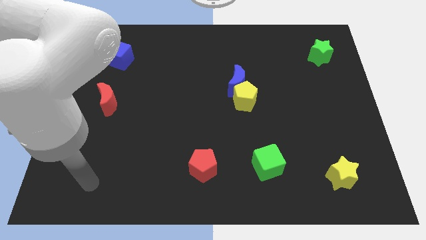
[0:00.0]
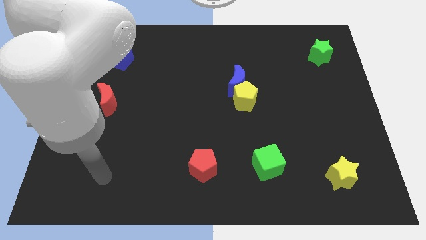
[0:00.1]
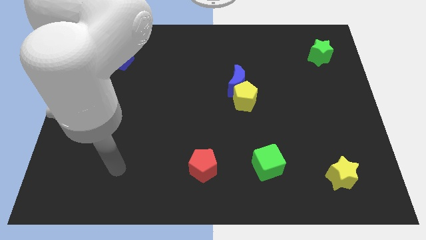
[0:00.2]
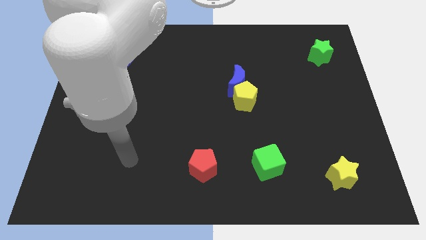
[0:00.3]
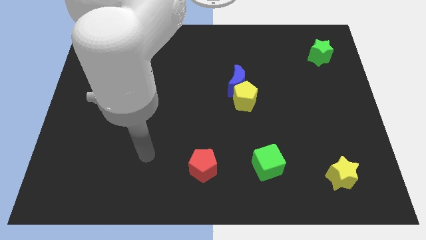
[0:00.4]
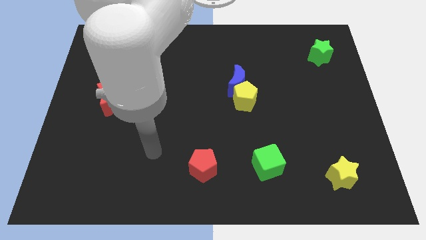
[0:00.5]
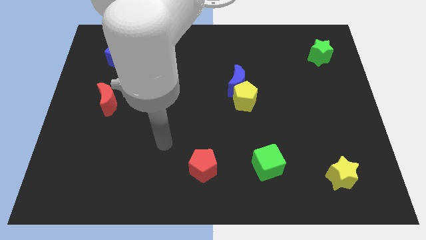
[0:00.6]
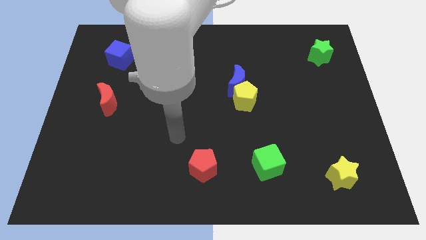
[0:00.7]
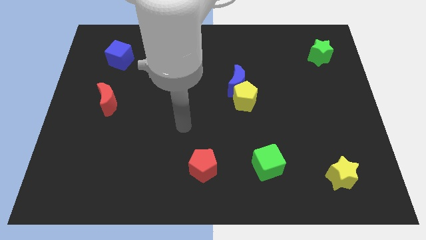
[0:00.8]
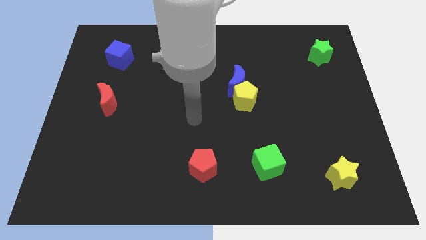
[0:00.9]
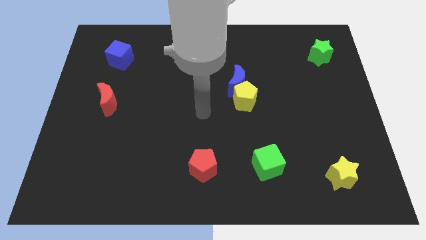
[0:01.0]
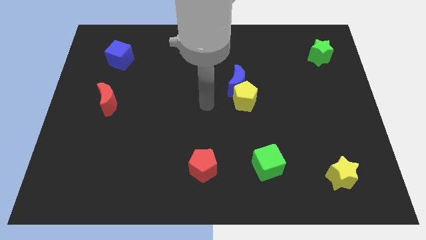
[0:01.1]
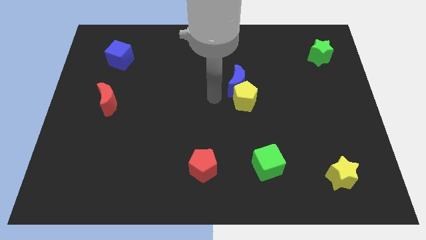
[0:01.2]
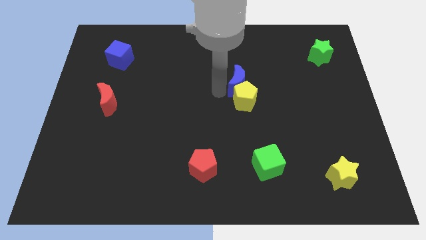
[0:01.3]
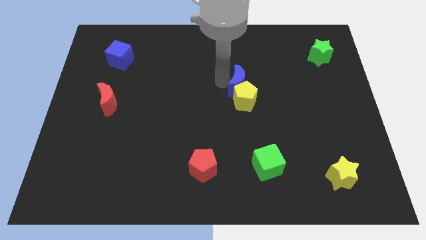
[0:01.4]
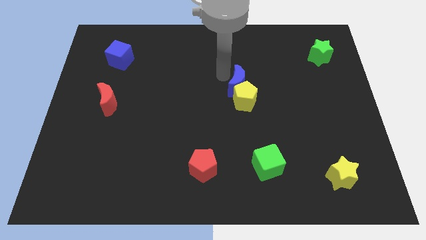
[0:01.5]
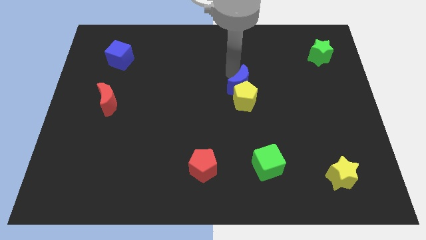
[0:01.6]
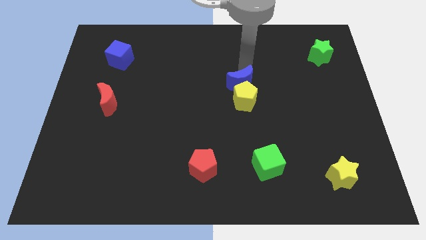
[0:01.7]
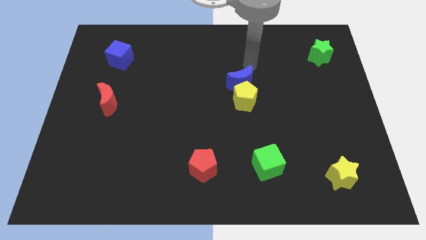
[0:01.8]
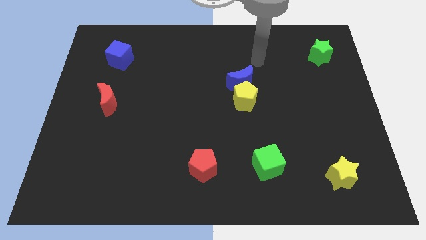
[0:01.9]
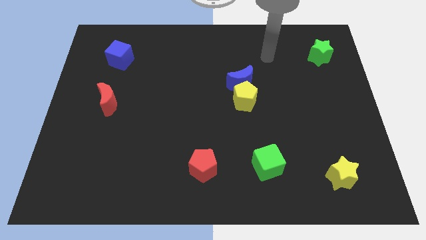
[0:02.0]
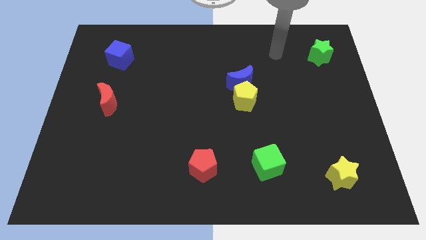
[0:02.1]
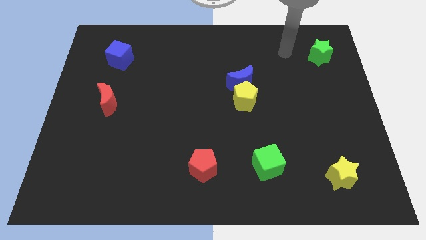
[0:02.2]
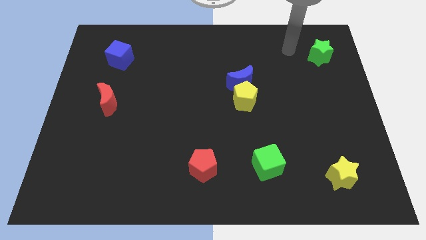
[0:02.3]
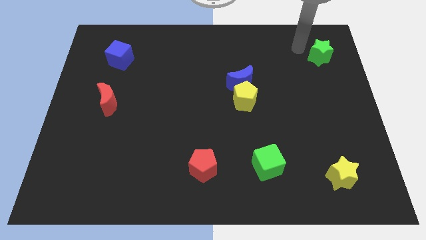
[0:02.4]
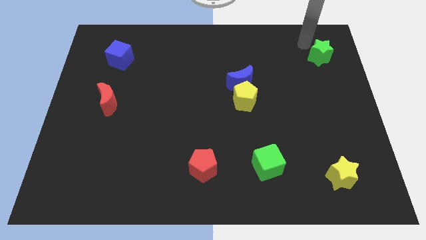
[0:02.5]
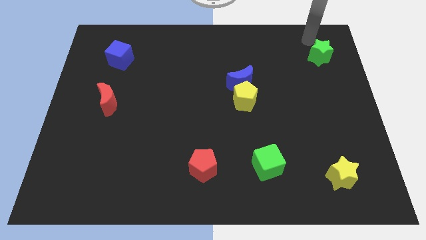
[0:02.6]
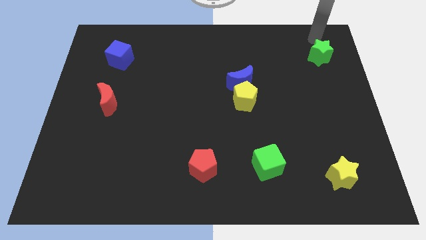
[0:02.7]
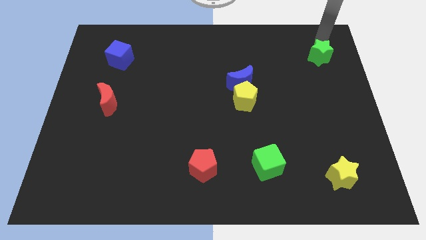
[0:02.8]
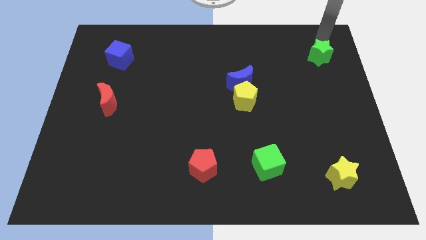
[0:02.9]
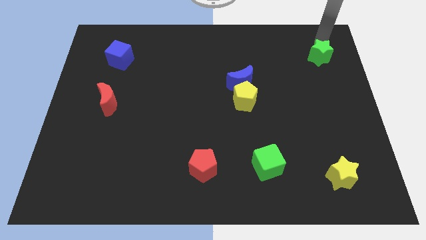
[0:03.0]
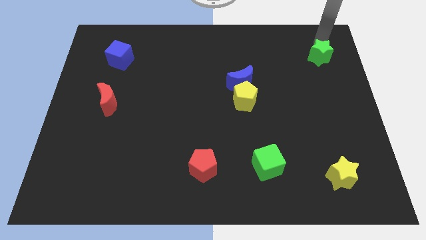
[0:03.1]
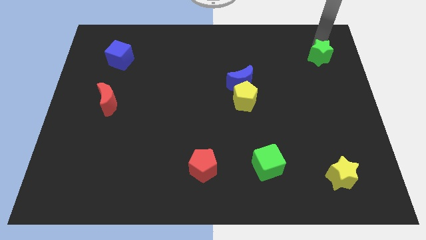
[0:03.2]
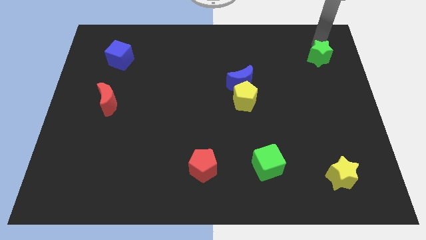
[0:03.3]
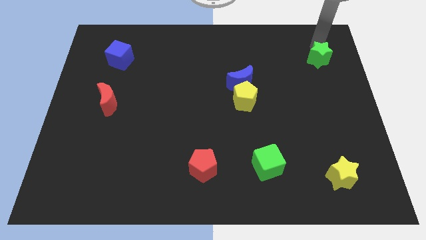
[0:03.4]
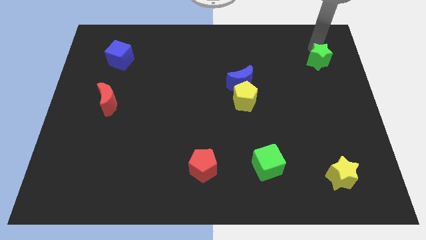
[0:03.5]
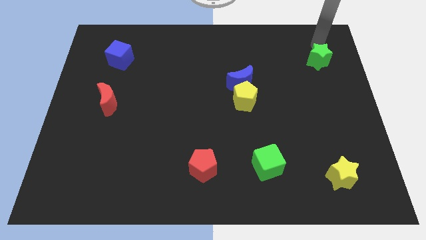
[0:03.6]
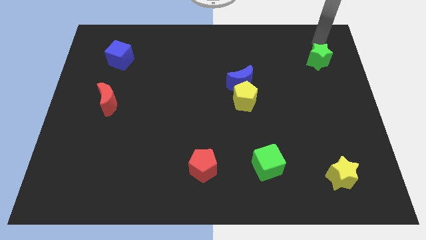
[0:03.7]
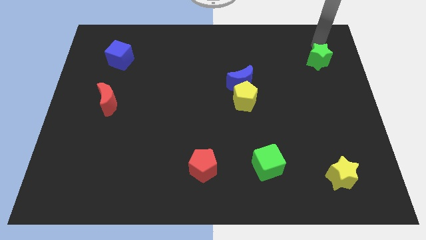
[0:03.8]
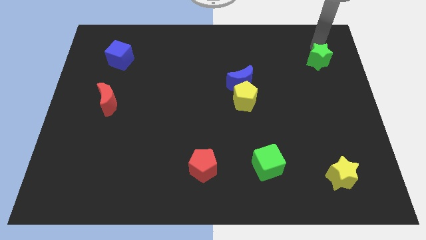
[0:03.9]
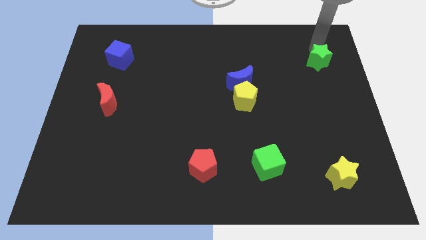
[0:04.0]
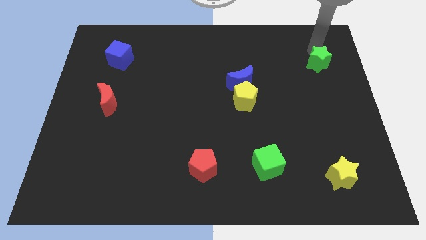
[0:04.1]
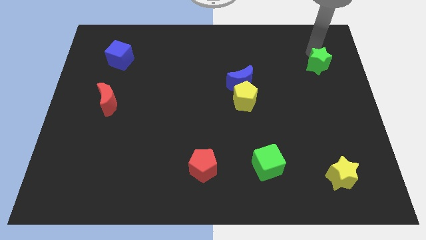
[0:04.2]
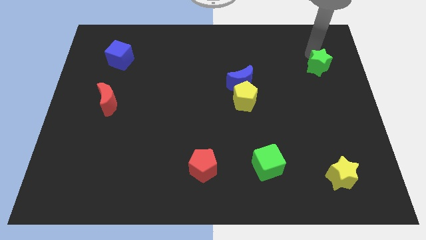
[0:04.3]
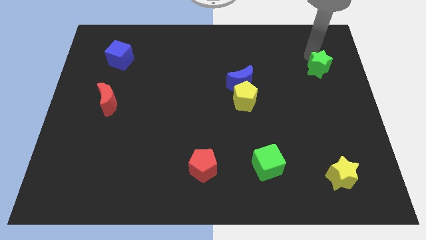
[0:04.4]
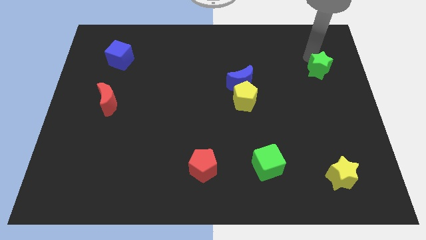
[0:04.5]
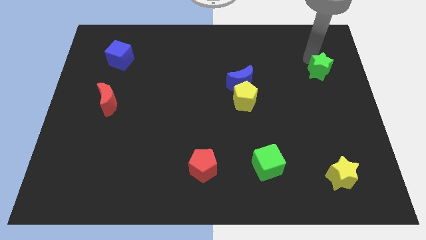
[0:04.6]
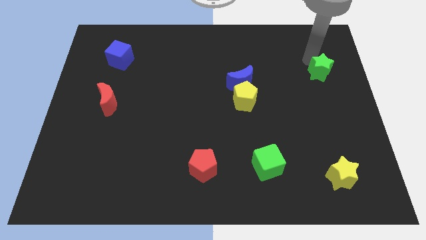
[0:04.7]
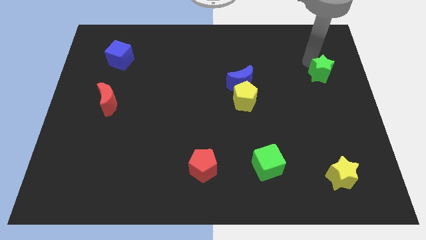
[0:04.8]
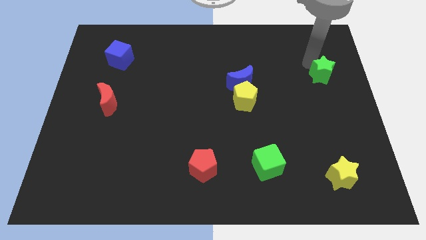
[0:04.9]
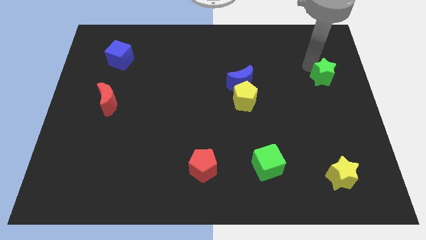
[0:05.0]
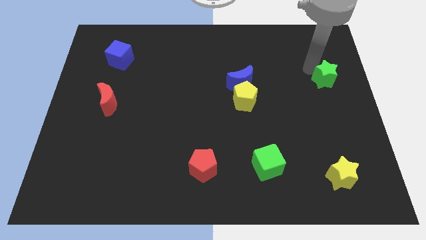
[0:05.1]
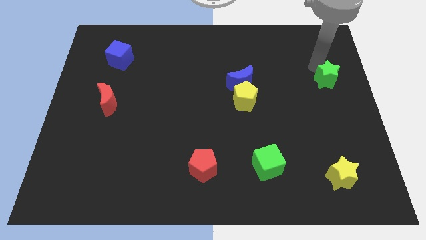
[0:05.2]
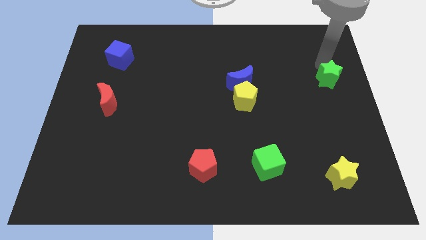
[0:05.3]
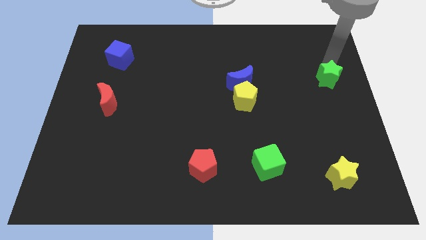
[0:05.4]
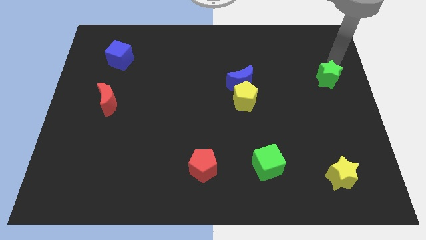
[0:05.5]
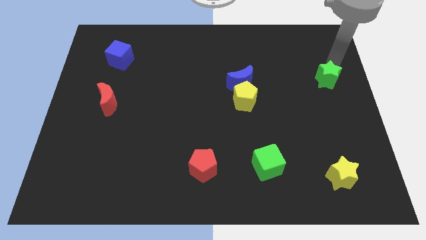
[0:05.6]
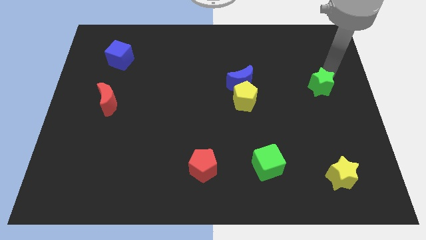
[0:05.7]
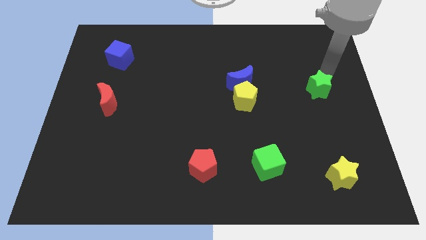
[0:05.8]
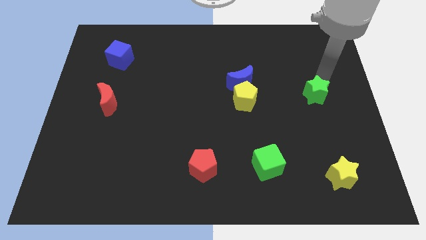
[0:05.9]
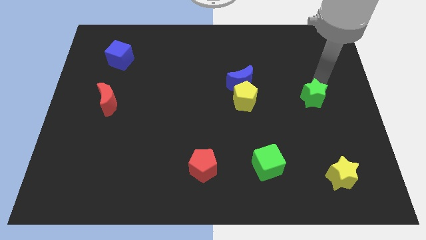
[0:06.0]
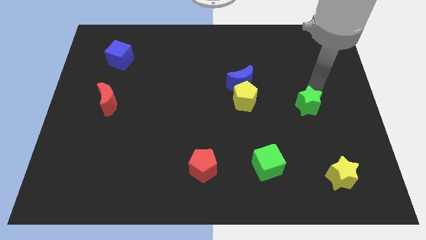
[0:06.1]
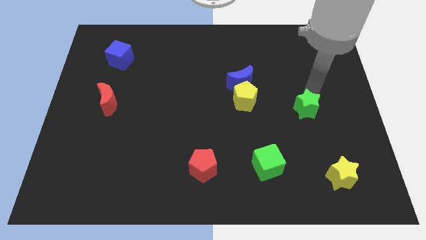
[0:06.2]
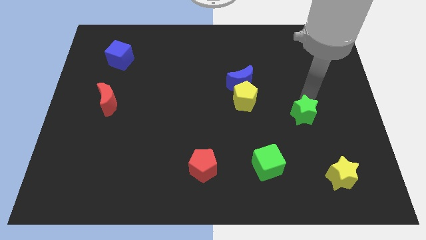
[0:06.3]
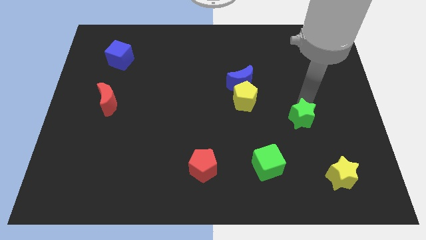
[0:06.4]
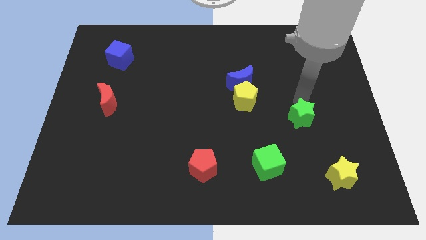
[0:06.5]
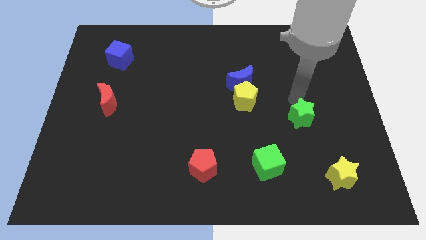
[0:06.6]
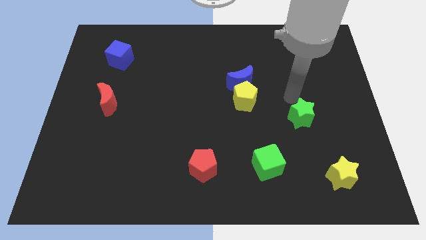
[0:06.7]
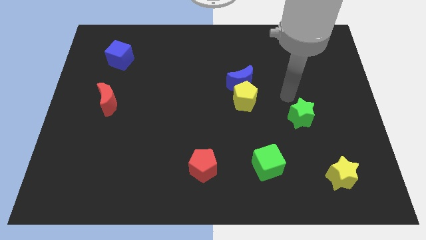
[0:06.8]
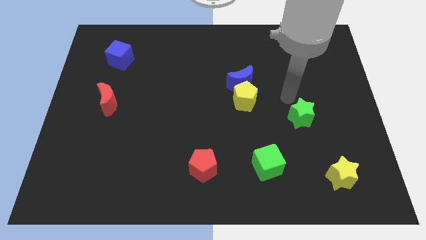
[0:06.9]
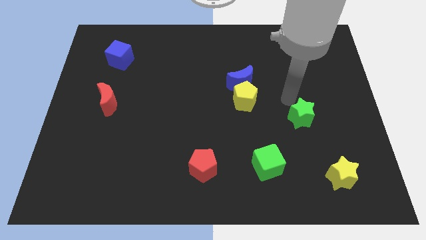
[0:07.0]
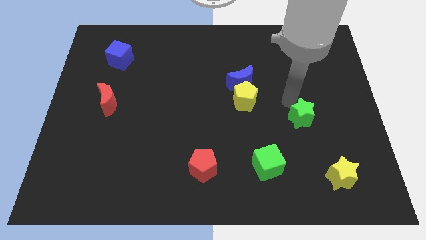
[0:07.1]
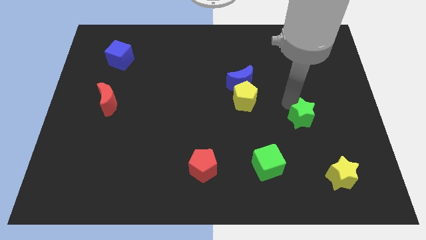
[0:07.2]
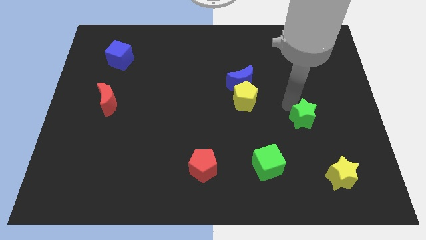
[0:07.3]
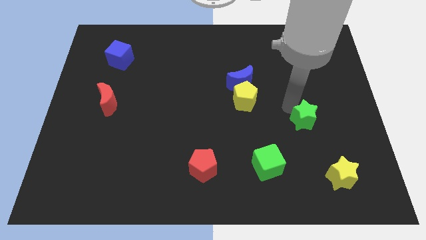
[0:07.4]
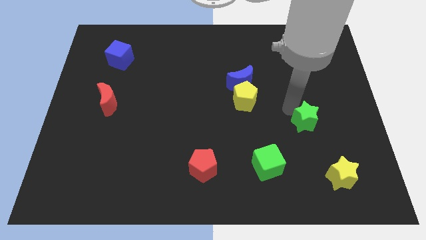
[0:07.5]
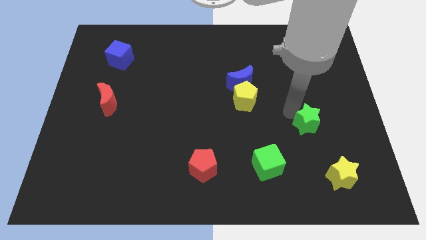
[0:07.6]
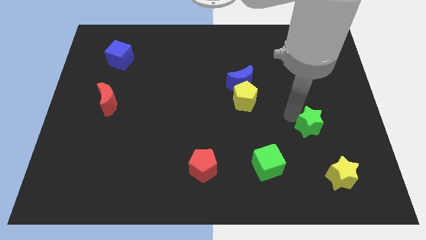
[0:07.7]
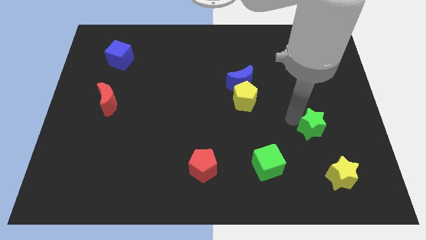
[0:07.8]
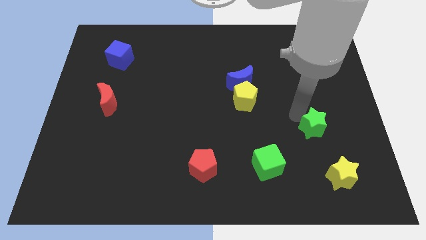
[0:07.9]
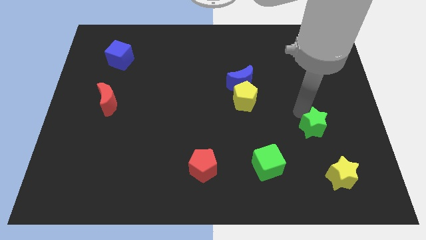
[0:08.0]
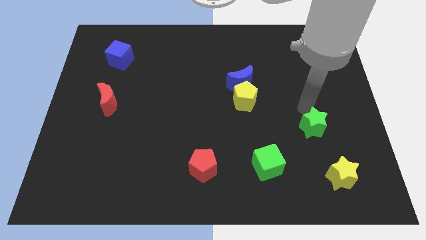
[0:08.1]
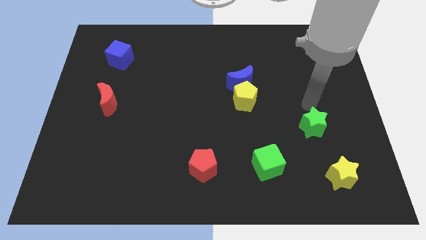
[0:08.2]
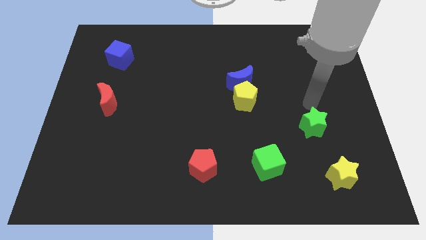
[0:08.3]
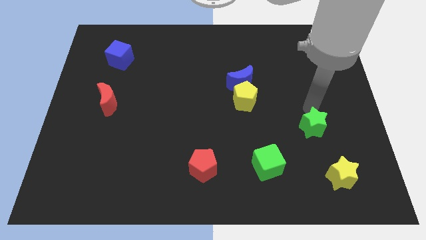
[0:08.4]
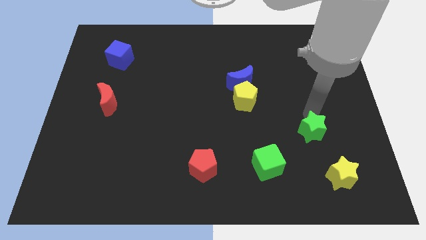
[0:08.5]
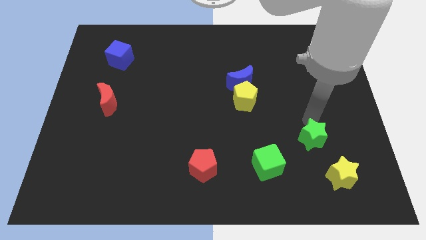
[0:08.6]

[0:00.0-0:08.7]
put the green star diagonally up and to the left of the yellow star
